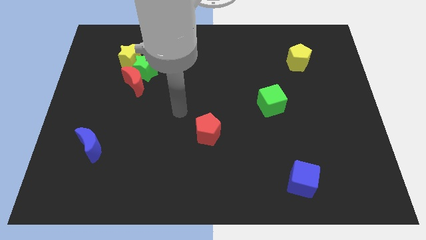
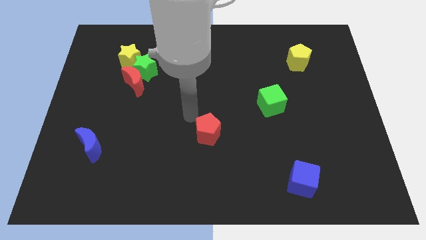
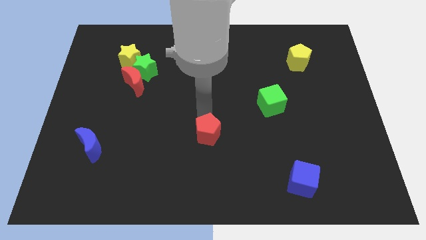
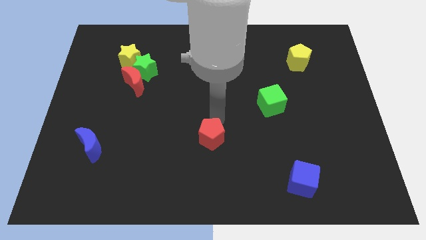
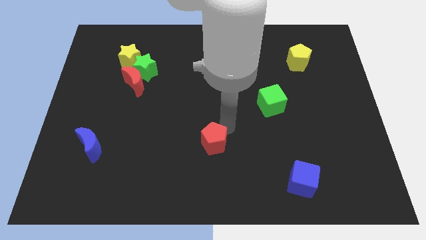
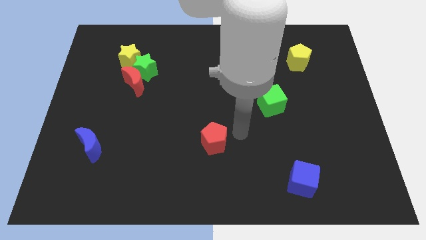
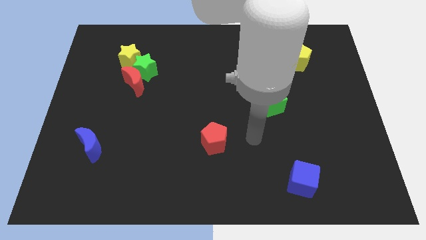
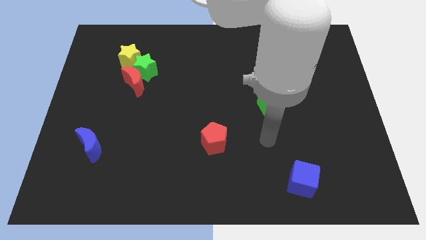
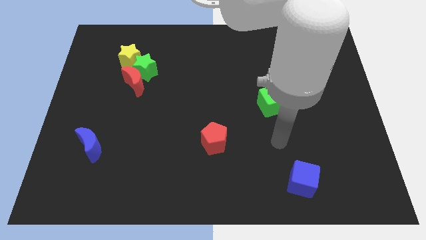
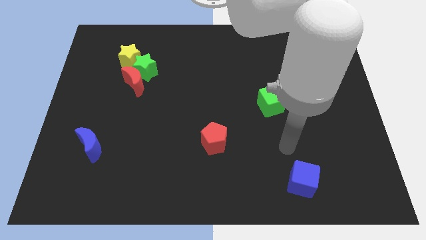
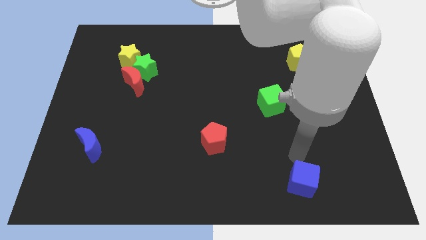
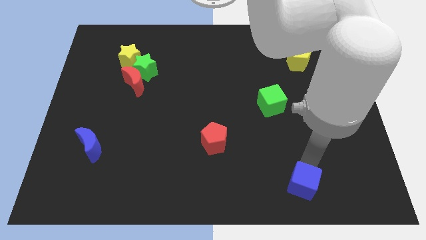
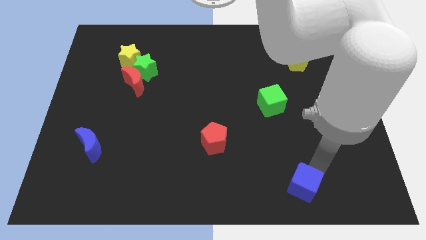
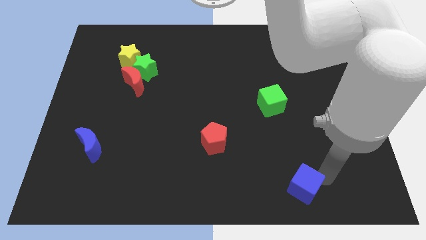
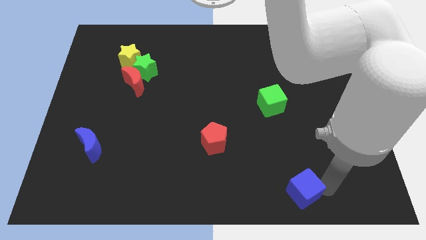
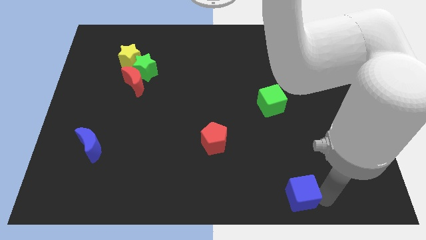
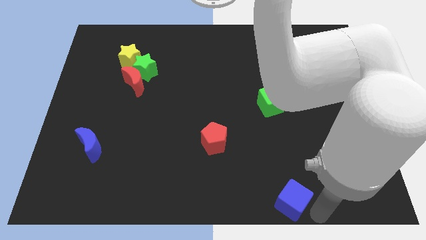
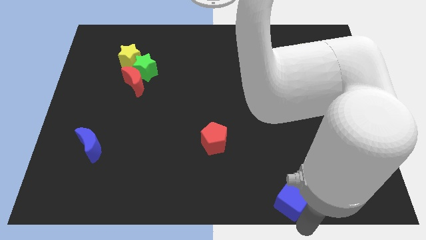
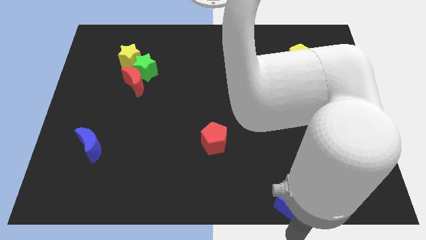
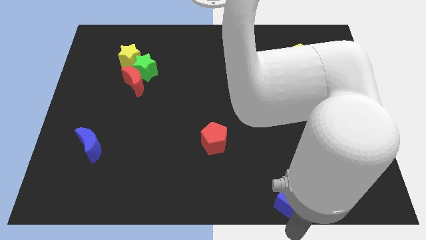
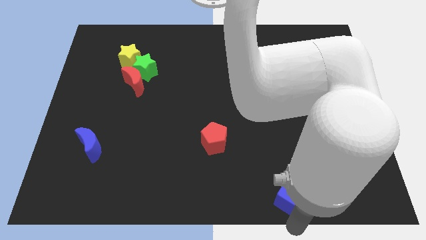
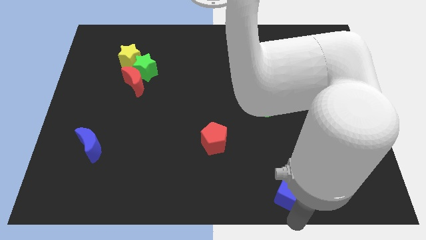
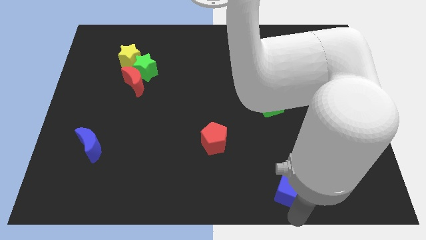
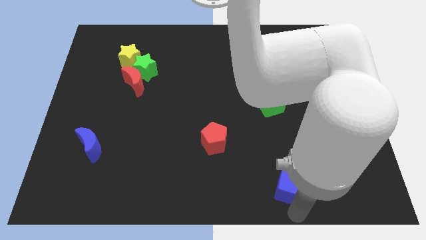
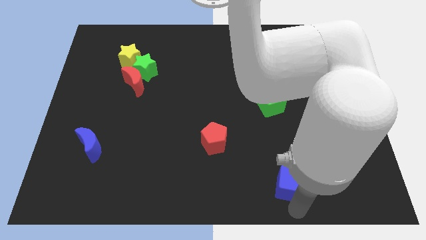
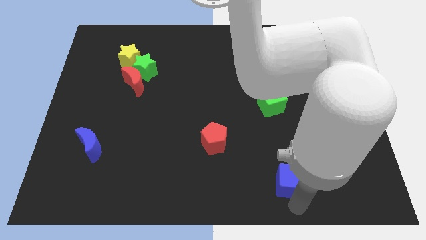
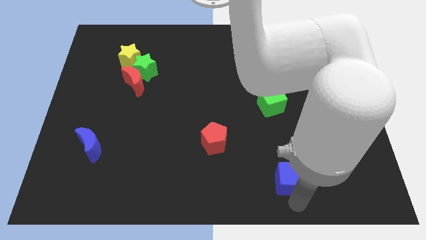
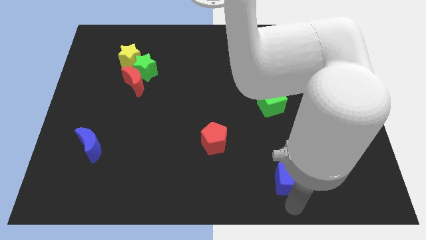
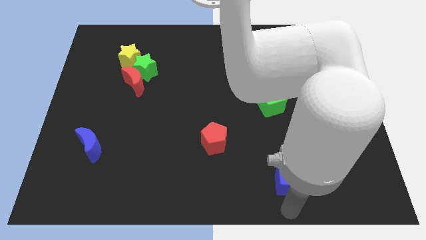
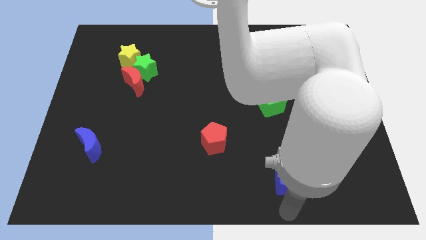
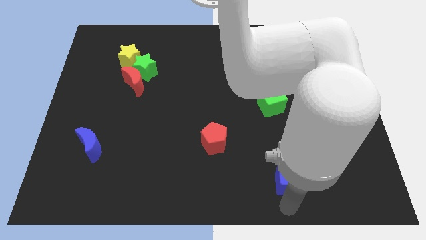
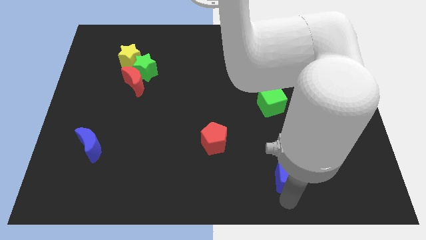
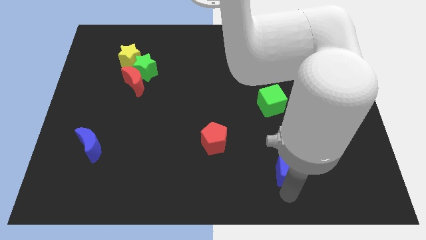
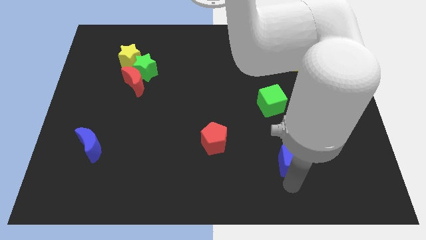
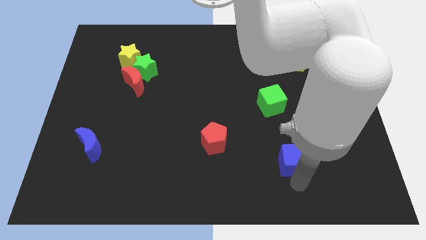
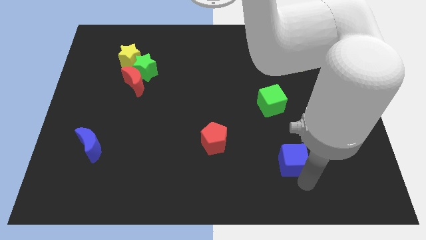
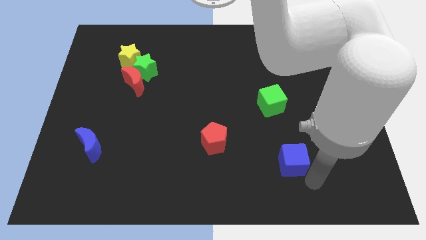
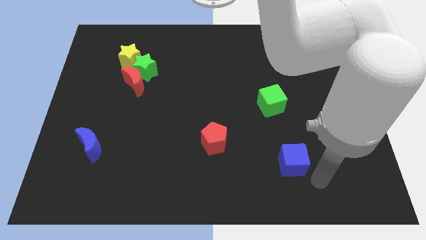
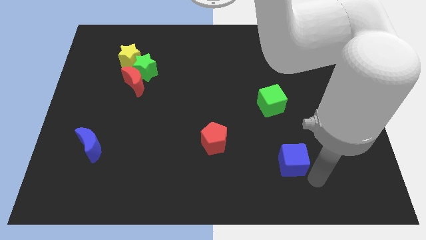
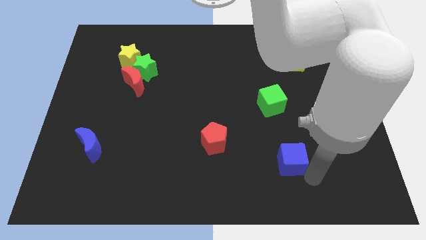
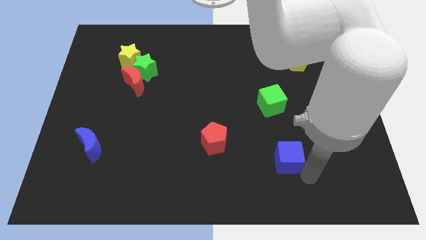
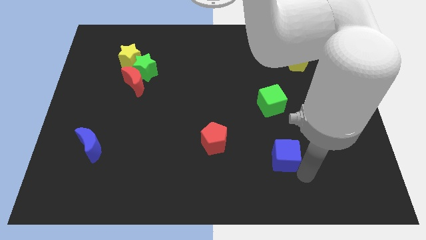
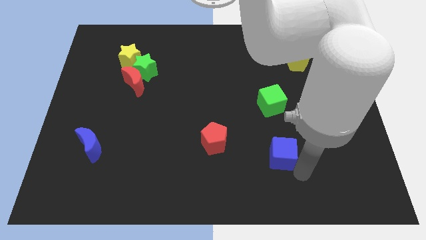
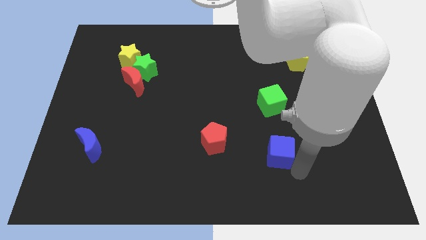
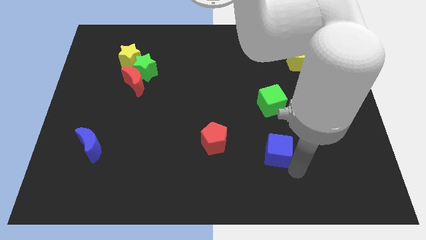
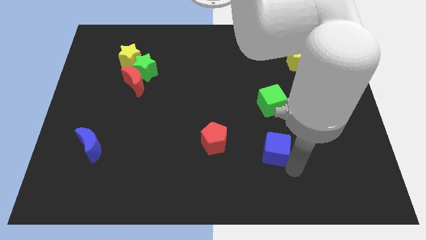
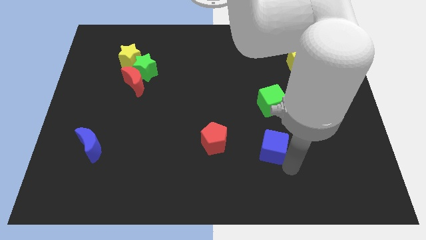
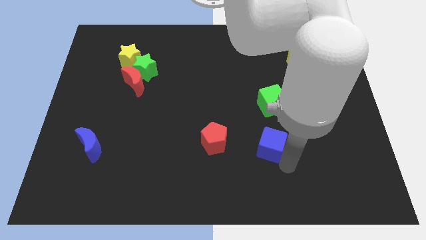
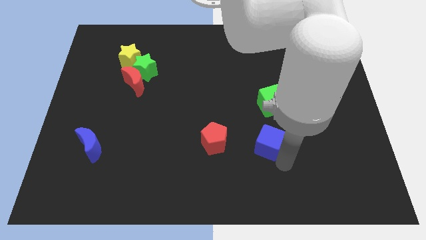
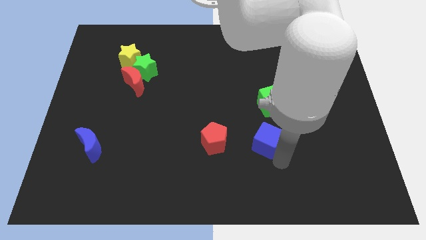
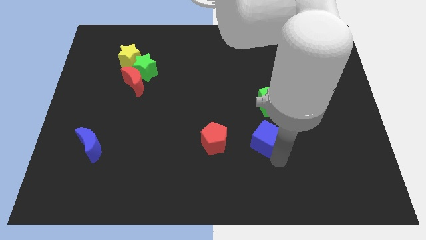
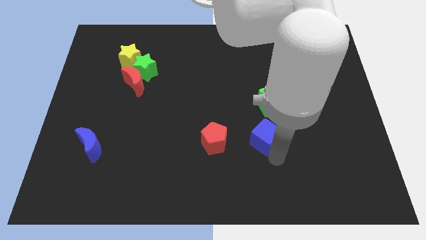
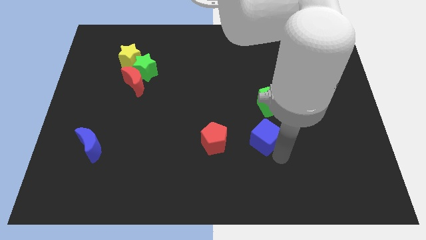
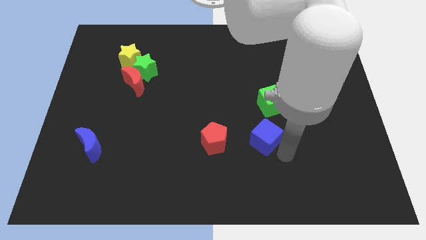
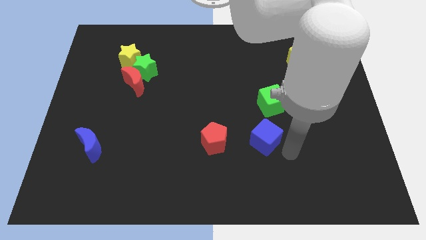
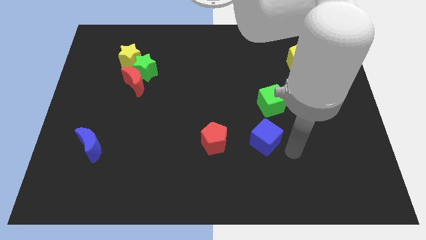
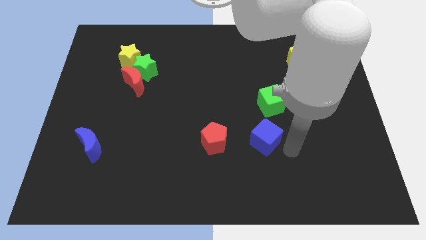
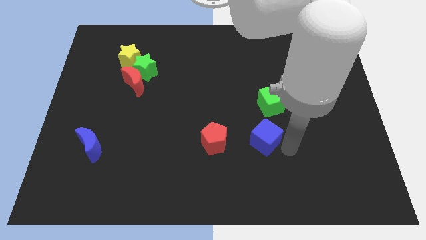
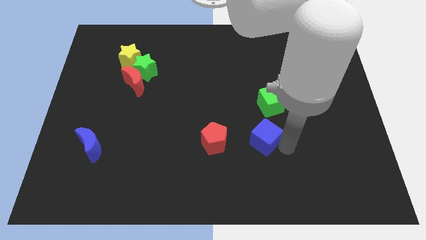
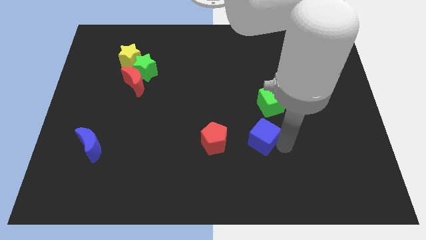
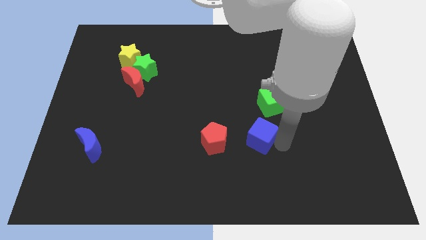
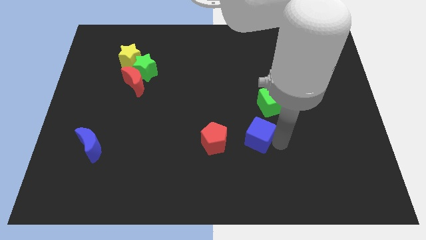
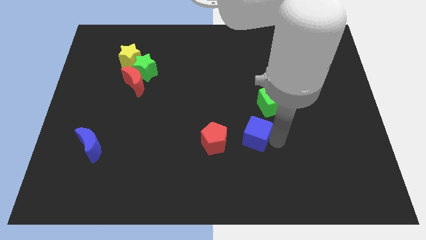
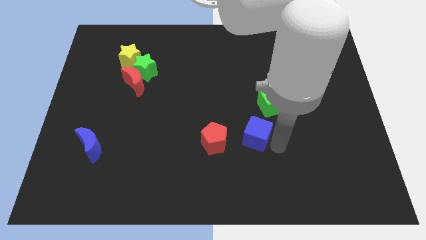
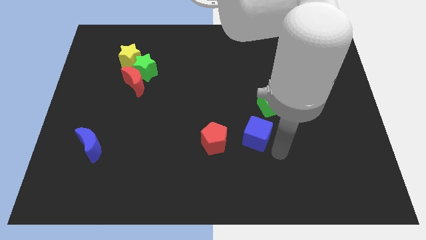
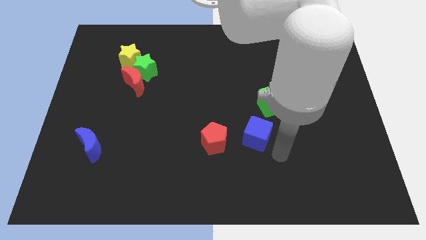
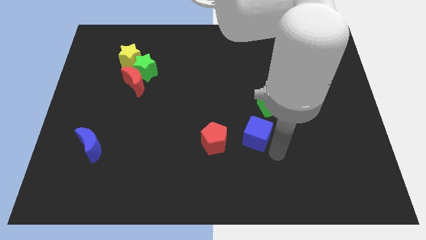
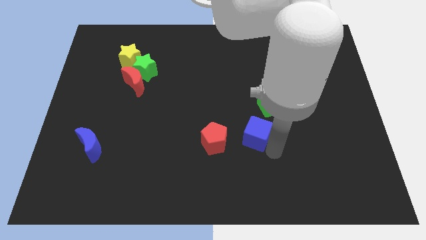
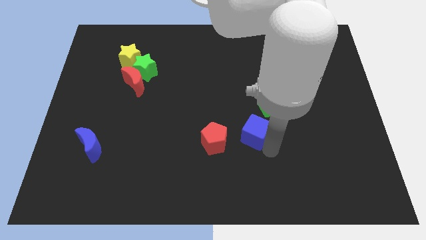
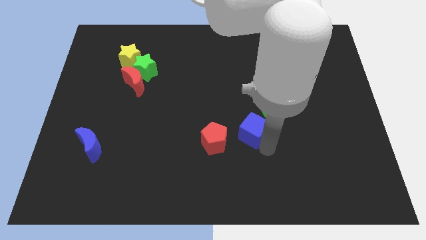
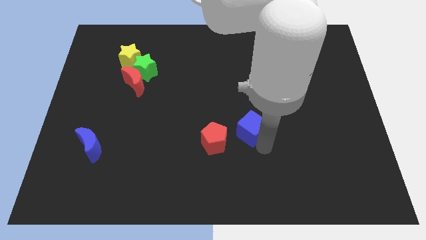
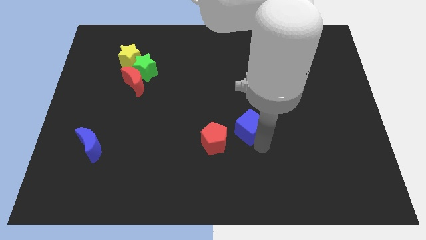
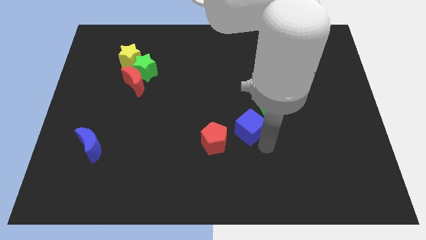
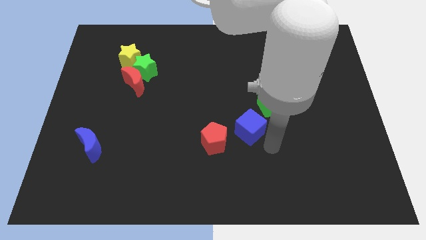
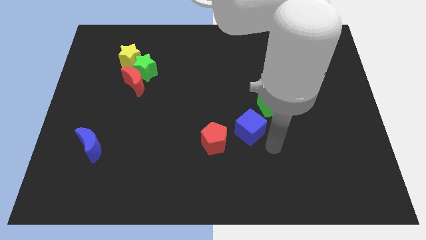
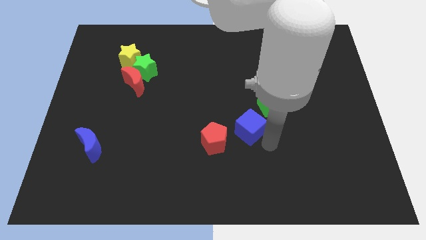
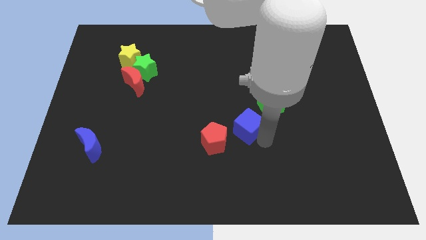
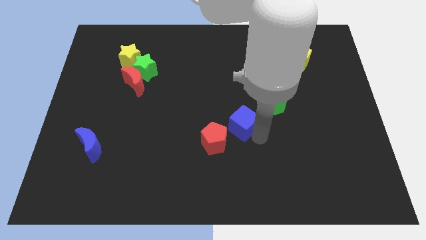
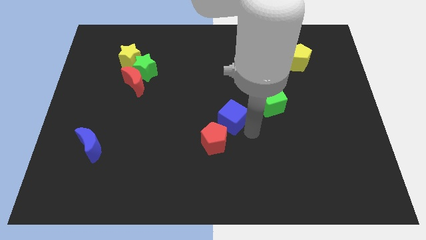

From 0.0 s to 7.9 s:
slide the blue cube diagonally upwards and left
